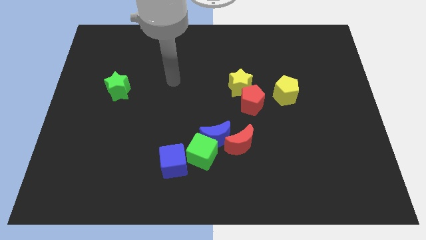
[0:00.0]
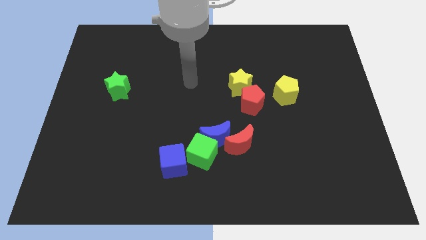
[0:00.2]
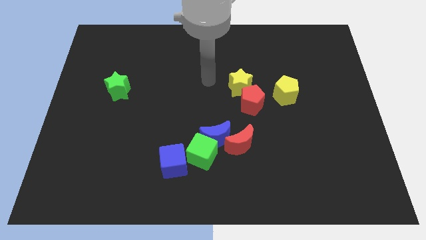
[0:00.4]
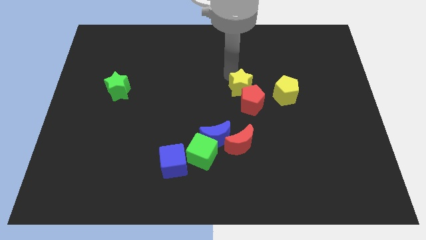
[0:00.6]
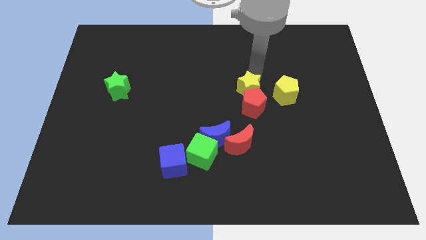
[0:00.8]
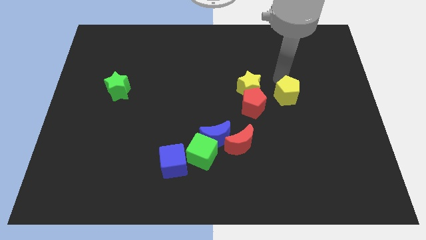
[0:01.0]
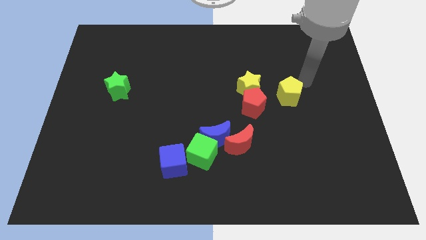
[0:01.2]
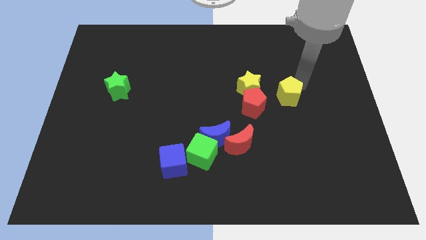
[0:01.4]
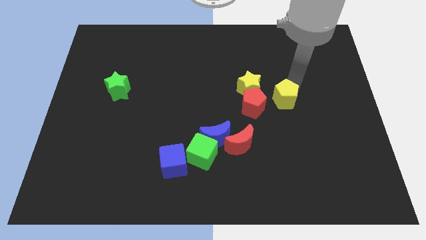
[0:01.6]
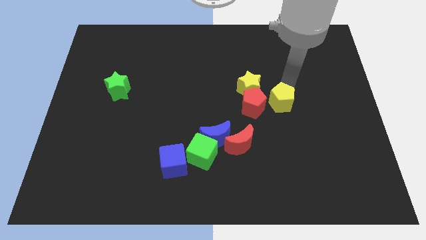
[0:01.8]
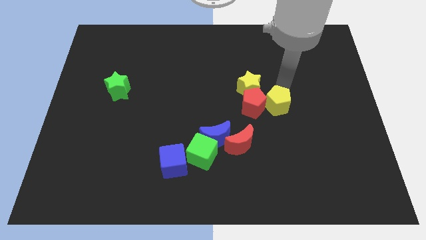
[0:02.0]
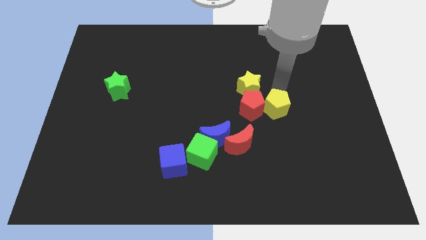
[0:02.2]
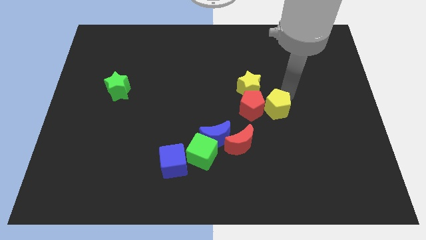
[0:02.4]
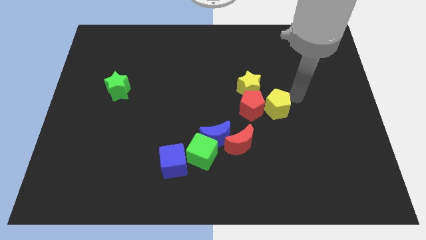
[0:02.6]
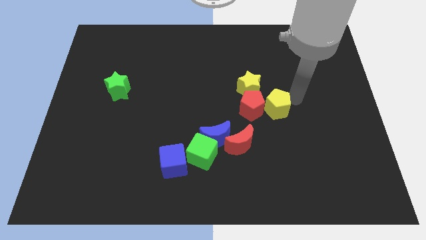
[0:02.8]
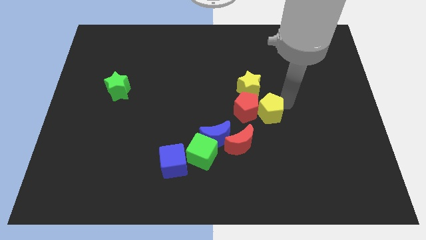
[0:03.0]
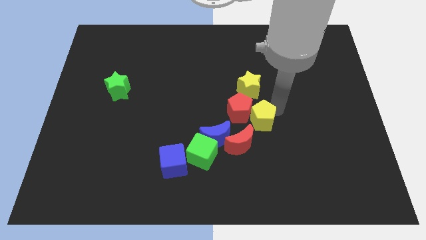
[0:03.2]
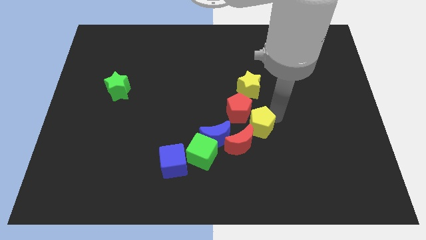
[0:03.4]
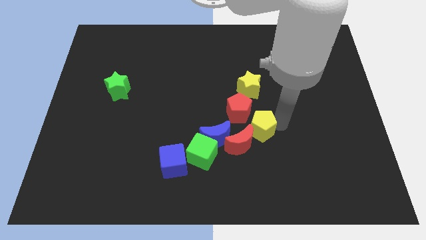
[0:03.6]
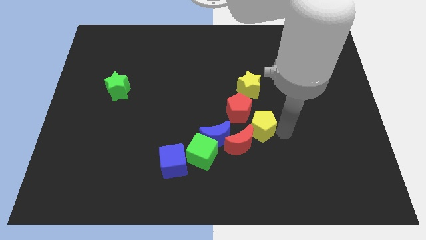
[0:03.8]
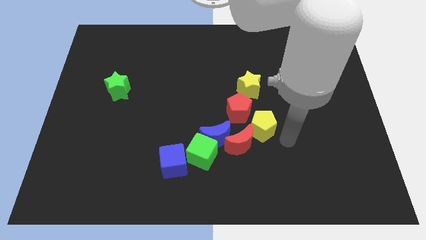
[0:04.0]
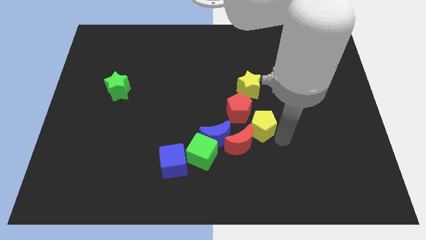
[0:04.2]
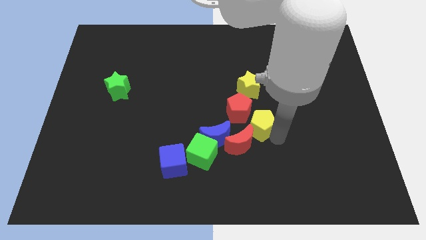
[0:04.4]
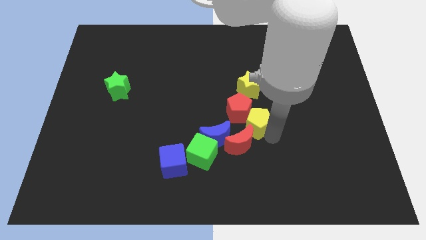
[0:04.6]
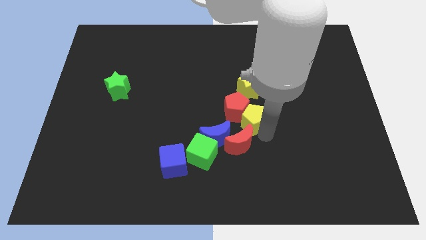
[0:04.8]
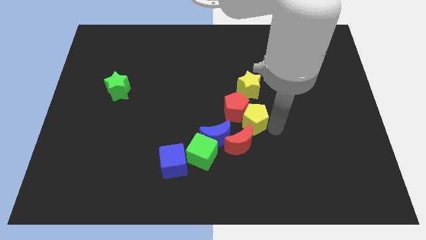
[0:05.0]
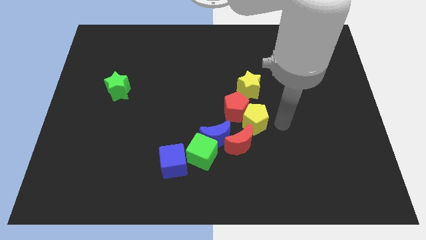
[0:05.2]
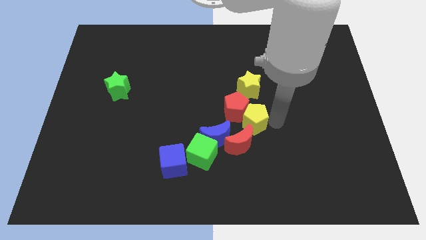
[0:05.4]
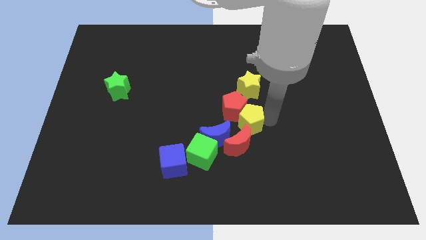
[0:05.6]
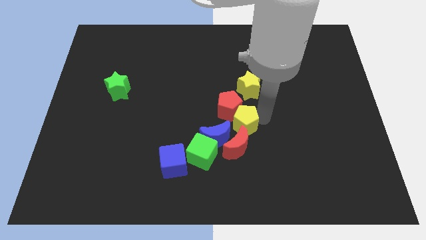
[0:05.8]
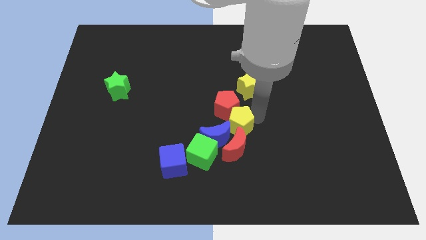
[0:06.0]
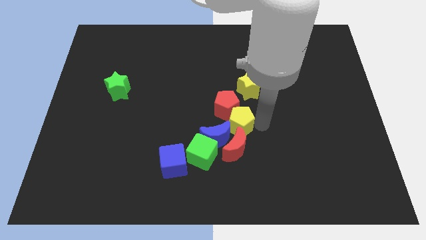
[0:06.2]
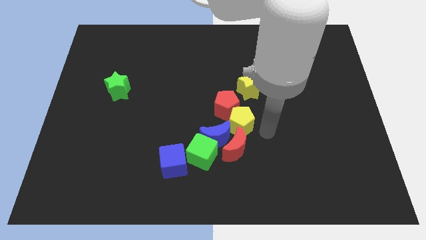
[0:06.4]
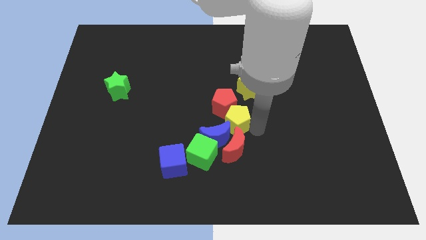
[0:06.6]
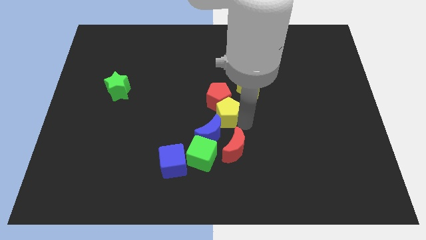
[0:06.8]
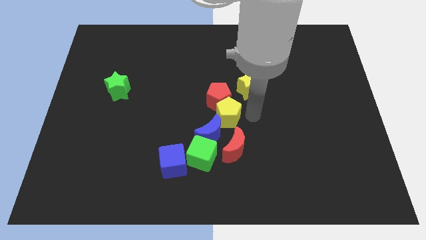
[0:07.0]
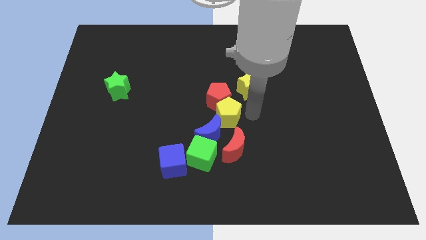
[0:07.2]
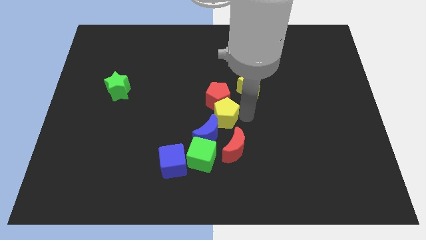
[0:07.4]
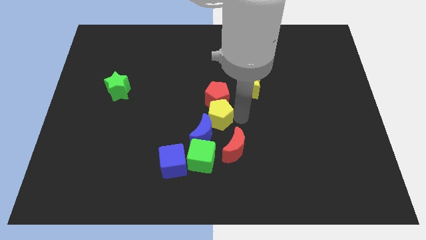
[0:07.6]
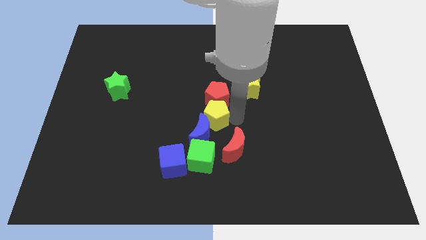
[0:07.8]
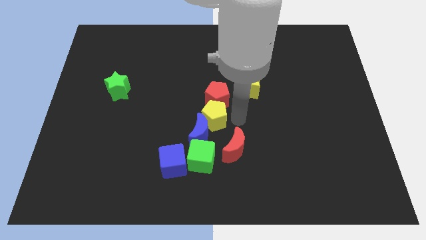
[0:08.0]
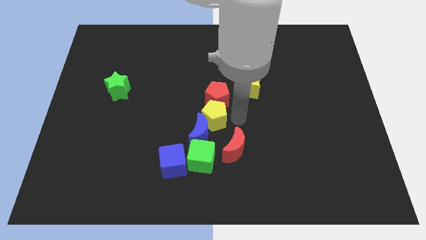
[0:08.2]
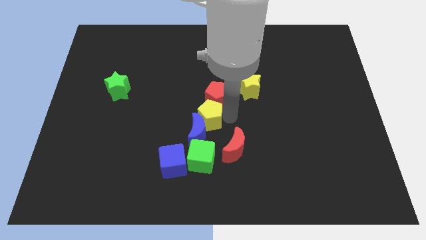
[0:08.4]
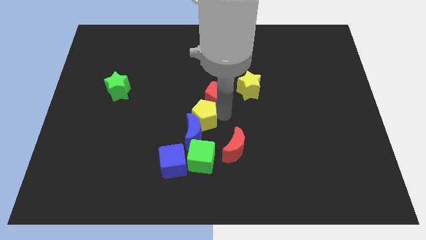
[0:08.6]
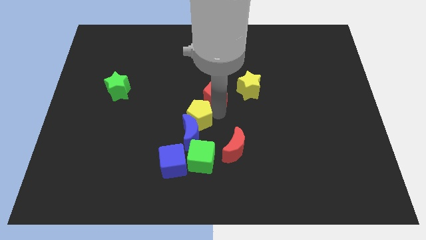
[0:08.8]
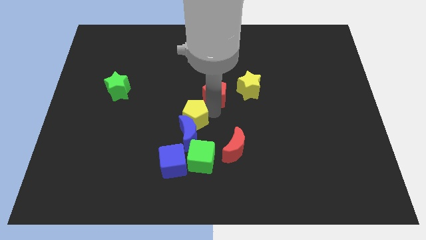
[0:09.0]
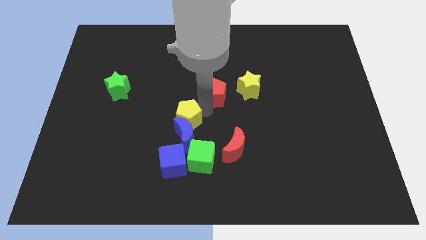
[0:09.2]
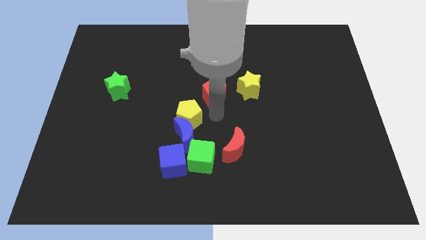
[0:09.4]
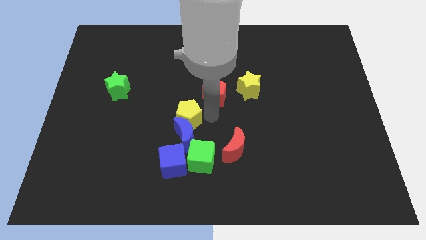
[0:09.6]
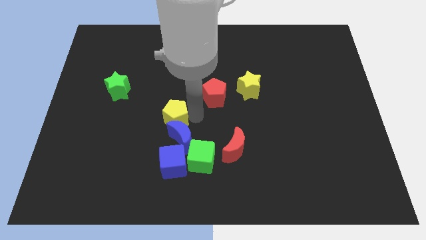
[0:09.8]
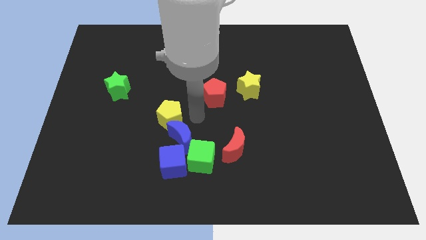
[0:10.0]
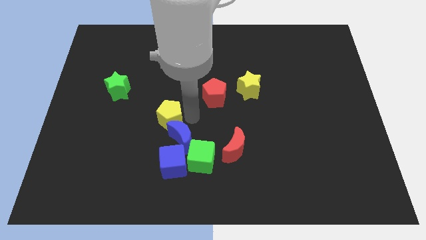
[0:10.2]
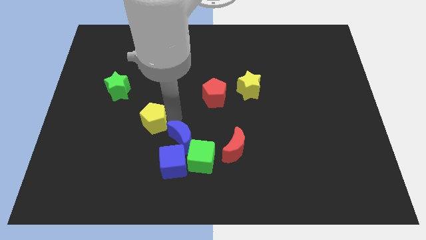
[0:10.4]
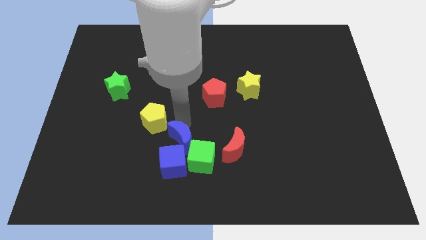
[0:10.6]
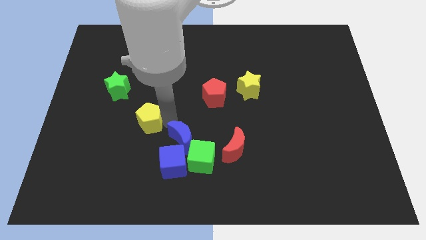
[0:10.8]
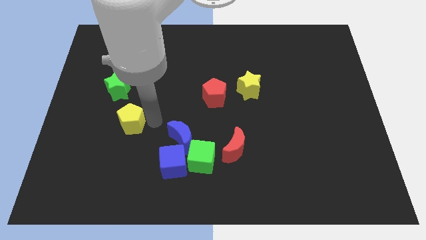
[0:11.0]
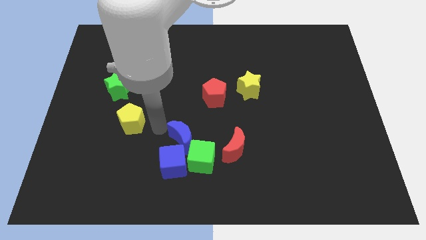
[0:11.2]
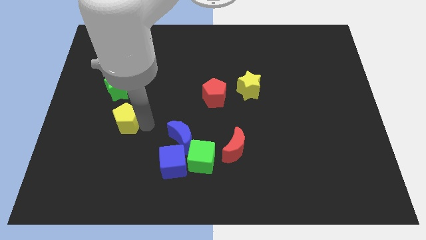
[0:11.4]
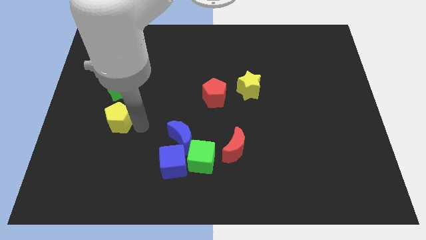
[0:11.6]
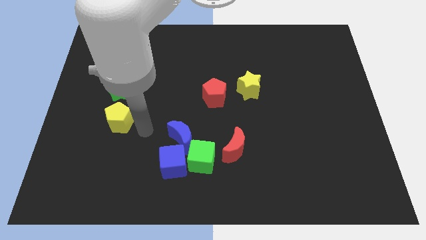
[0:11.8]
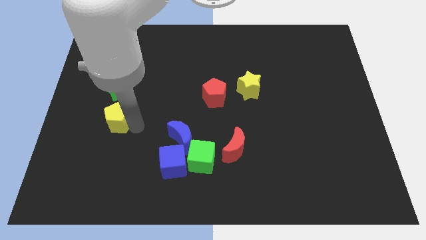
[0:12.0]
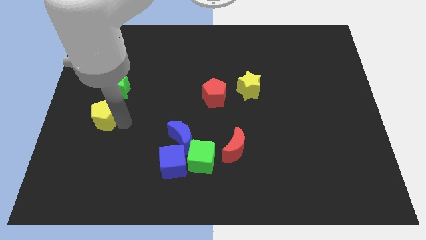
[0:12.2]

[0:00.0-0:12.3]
put the yellow pentagon diagonally down and to the left of the green star

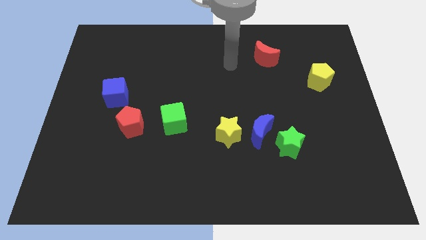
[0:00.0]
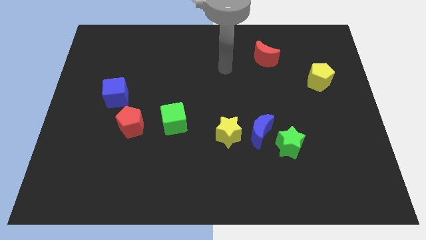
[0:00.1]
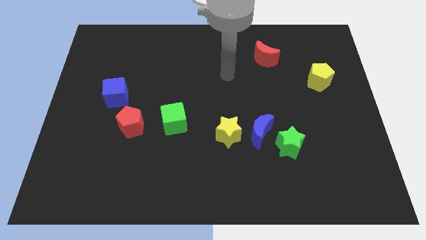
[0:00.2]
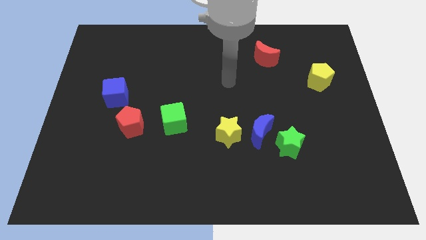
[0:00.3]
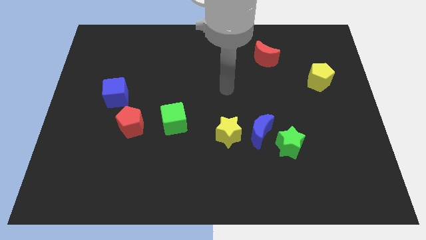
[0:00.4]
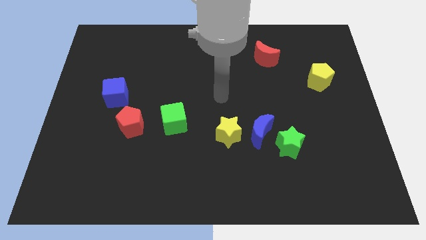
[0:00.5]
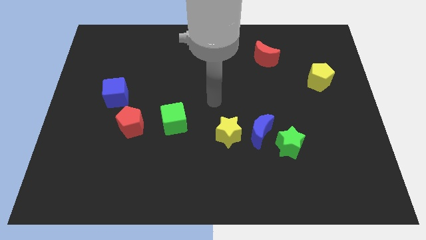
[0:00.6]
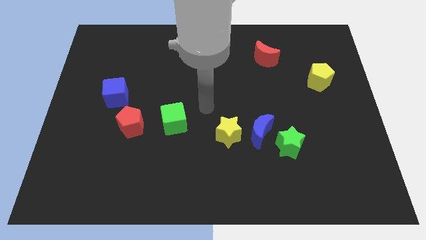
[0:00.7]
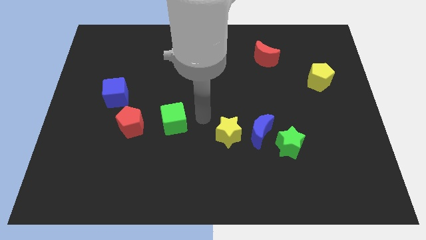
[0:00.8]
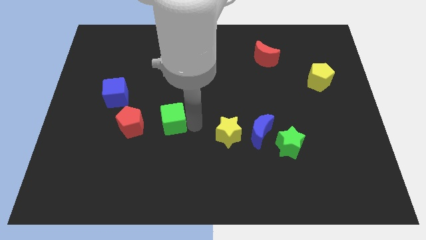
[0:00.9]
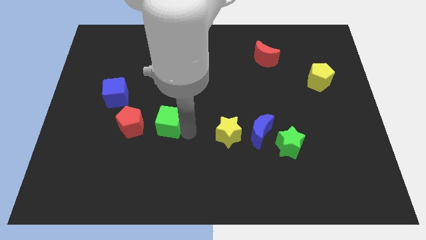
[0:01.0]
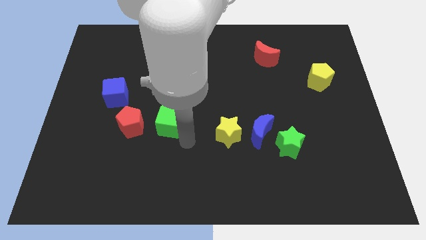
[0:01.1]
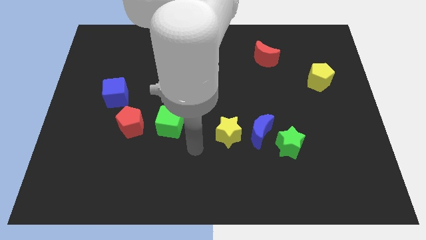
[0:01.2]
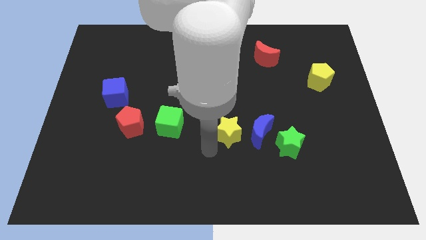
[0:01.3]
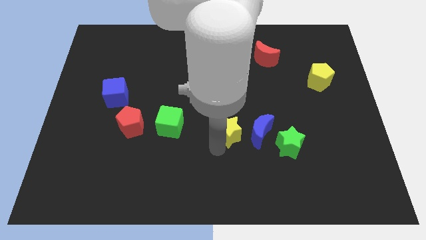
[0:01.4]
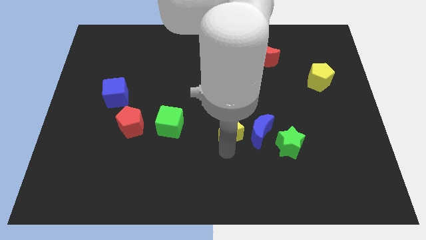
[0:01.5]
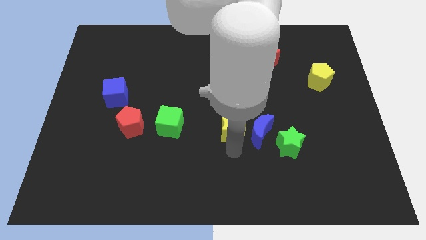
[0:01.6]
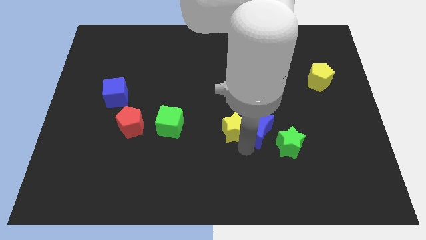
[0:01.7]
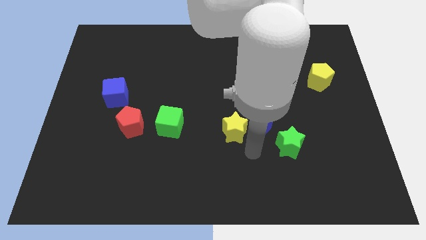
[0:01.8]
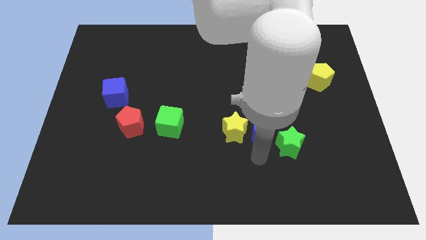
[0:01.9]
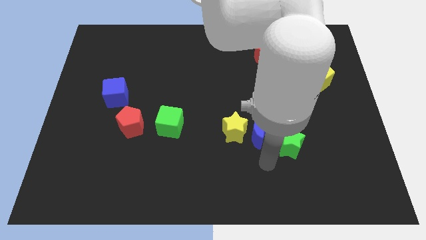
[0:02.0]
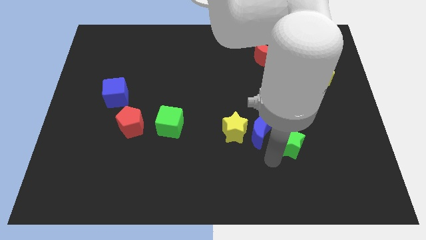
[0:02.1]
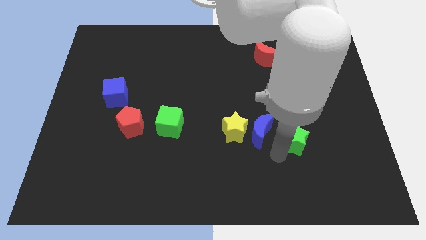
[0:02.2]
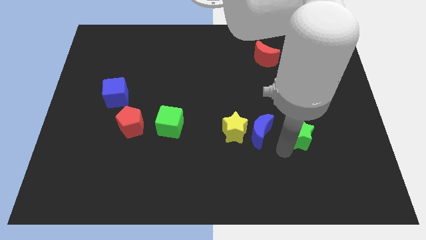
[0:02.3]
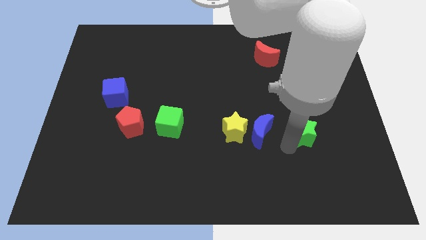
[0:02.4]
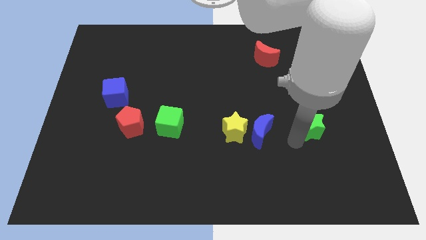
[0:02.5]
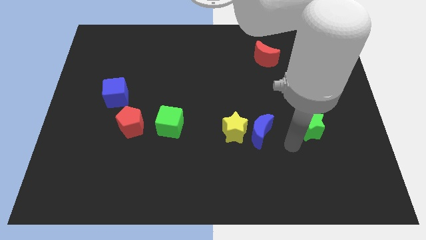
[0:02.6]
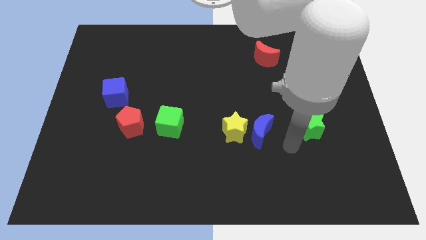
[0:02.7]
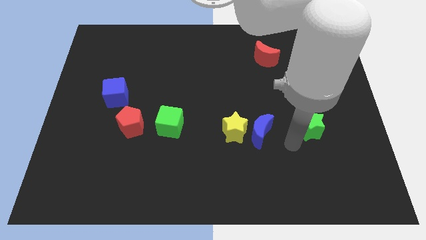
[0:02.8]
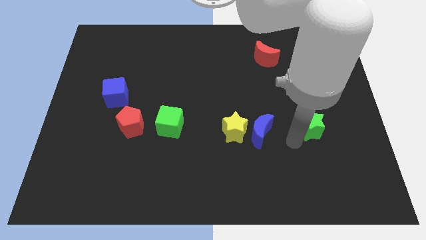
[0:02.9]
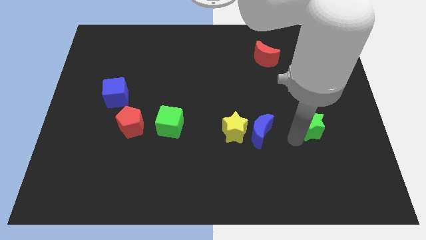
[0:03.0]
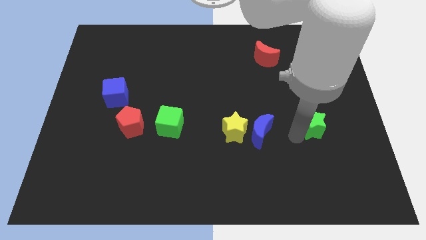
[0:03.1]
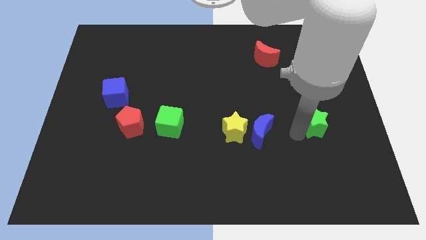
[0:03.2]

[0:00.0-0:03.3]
slide the green star to the bottom side of the yellow pentagon
